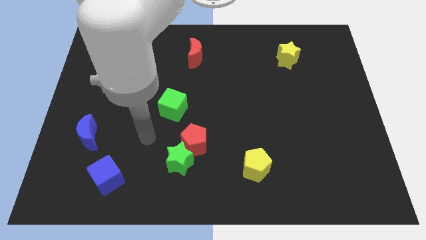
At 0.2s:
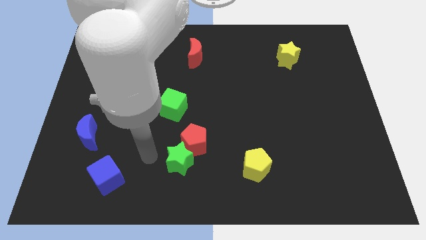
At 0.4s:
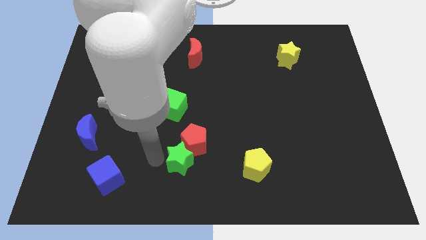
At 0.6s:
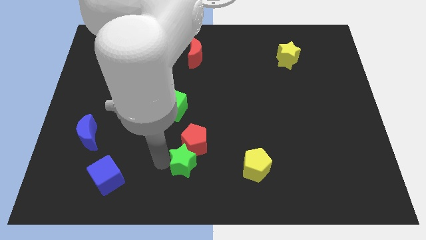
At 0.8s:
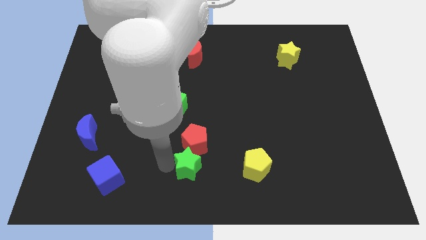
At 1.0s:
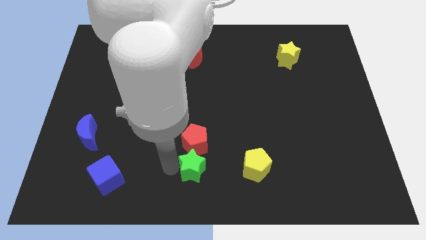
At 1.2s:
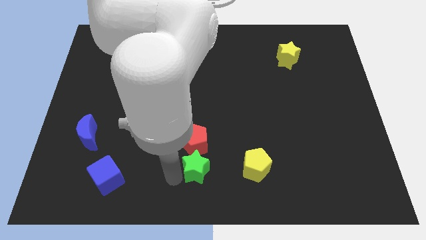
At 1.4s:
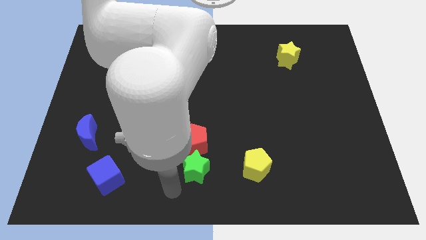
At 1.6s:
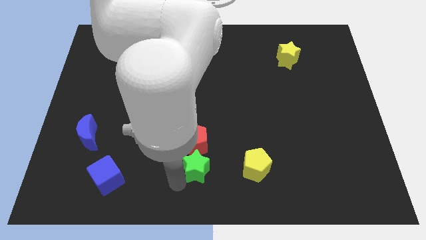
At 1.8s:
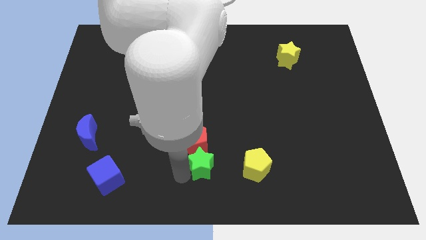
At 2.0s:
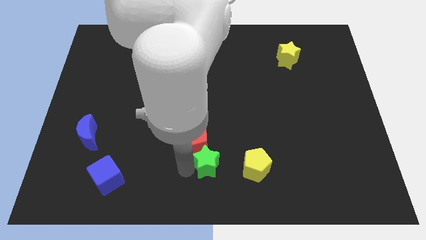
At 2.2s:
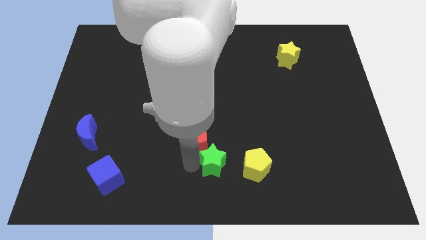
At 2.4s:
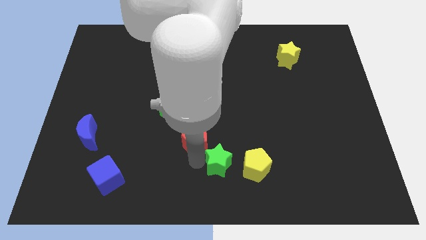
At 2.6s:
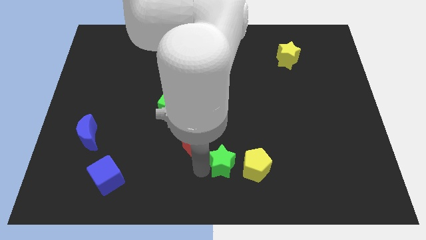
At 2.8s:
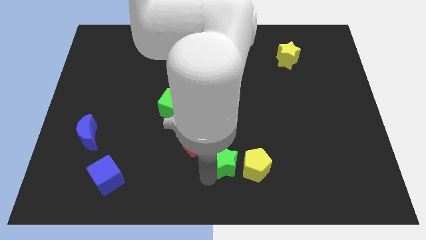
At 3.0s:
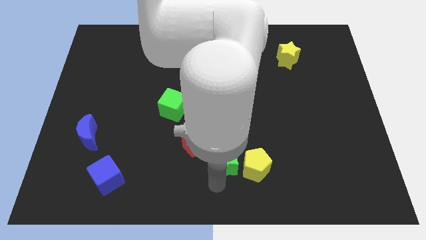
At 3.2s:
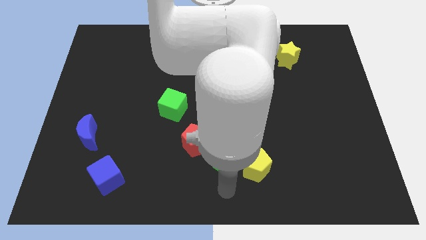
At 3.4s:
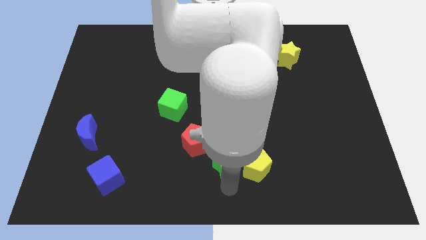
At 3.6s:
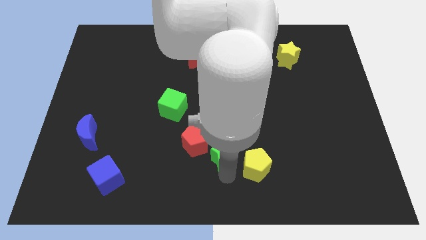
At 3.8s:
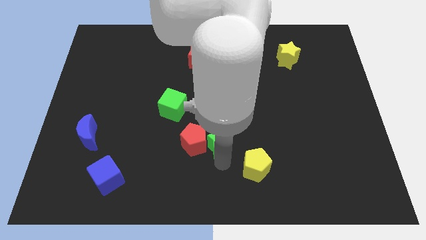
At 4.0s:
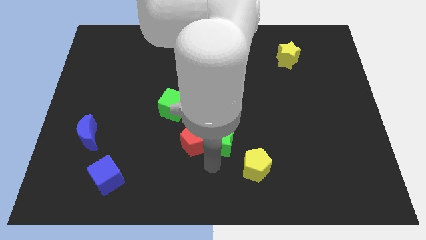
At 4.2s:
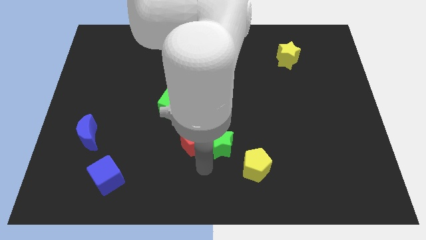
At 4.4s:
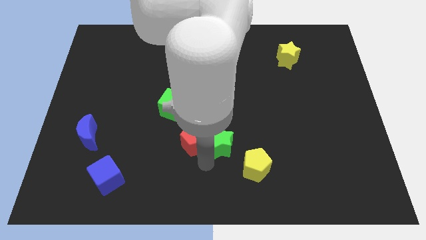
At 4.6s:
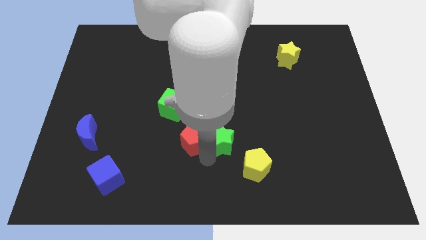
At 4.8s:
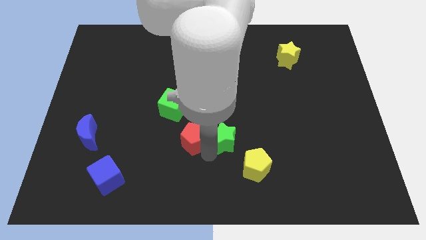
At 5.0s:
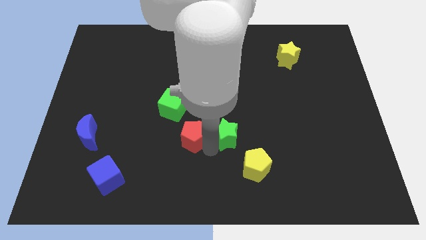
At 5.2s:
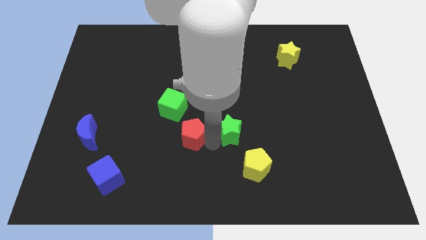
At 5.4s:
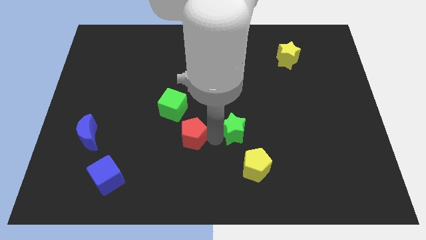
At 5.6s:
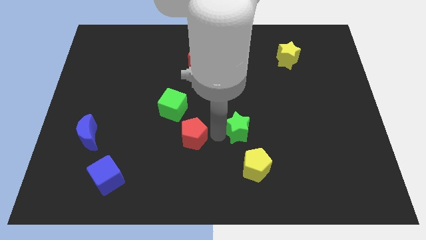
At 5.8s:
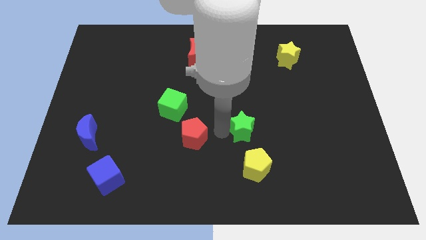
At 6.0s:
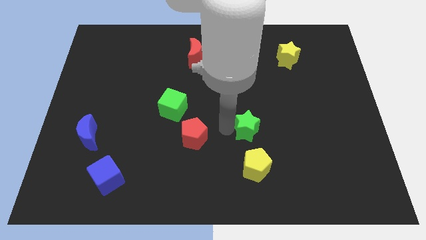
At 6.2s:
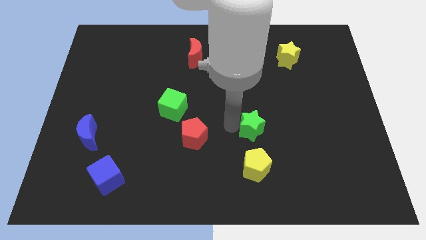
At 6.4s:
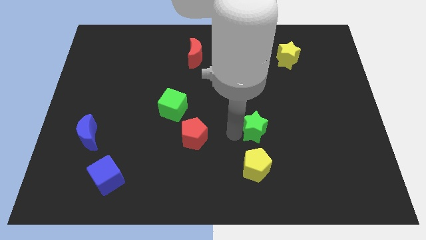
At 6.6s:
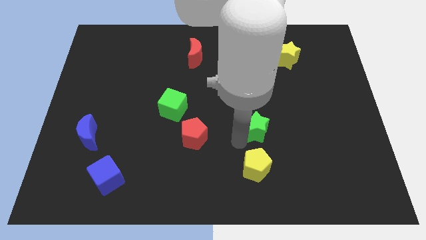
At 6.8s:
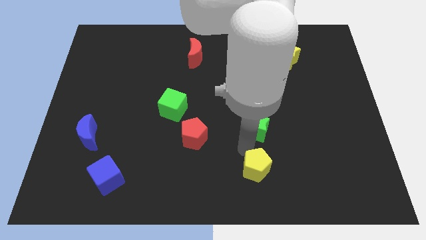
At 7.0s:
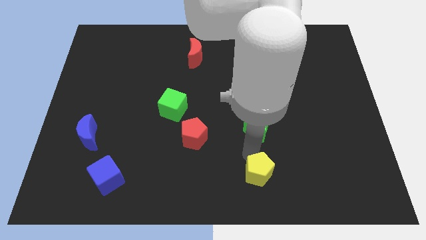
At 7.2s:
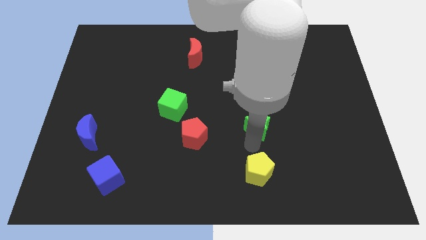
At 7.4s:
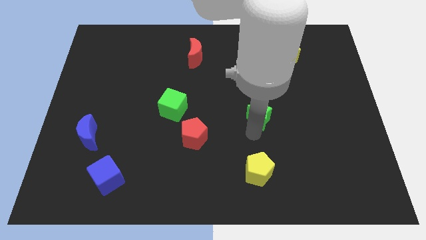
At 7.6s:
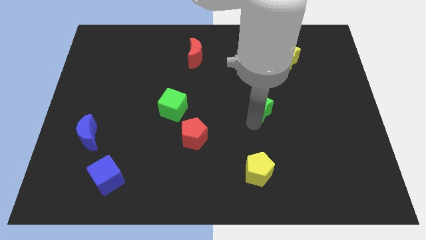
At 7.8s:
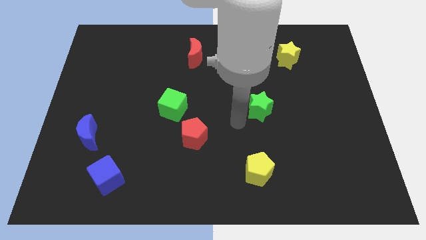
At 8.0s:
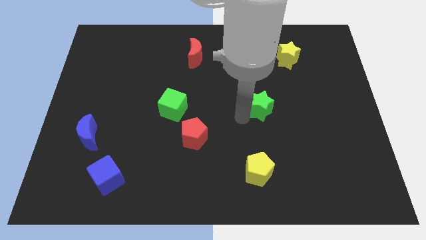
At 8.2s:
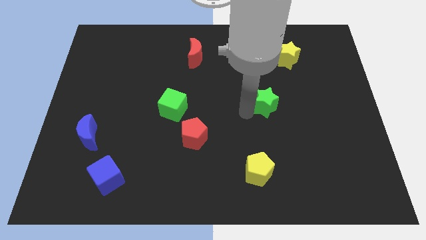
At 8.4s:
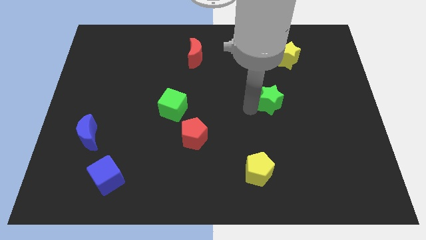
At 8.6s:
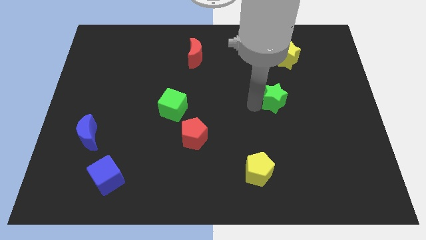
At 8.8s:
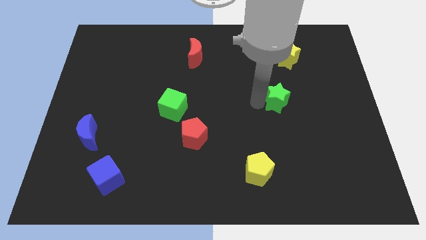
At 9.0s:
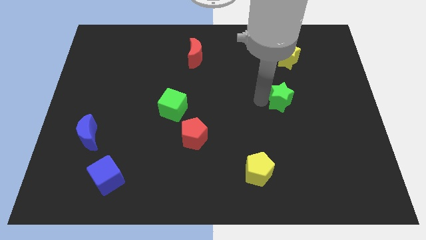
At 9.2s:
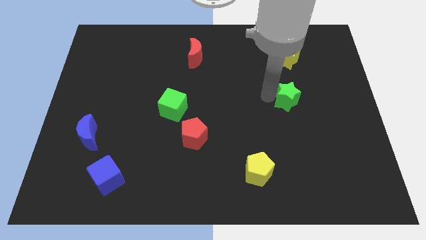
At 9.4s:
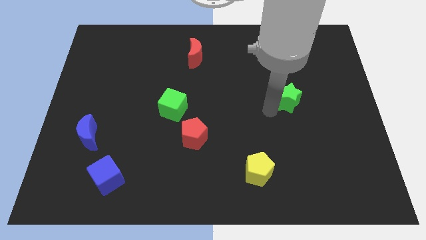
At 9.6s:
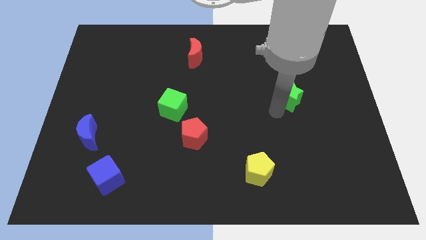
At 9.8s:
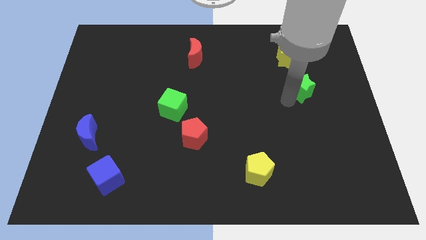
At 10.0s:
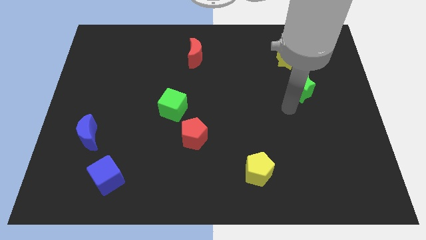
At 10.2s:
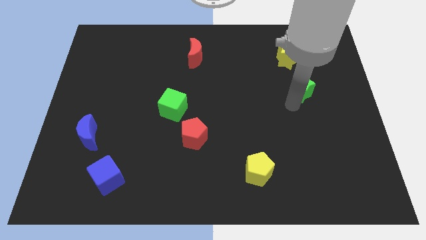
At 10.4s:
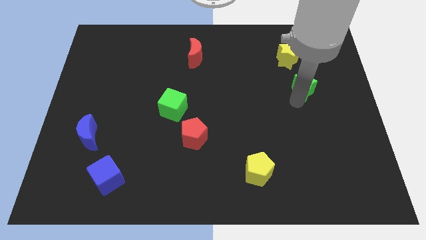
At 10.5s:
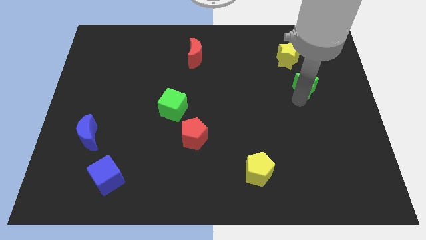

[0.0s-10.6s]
put the green star to the bottom right of the yellow star

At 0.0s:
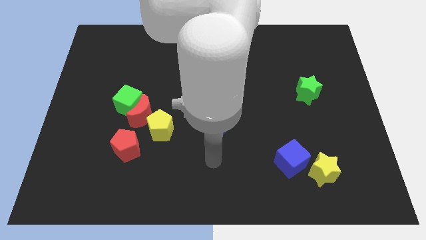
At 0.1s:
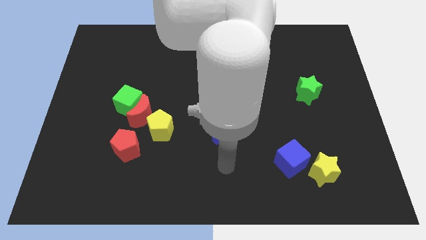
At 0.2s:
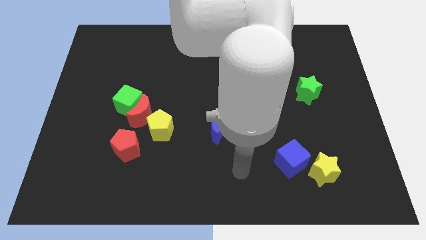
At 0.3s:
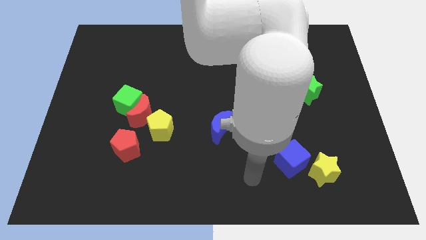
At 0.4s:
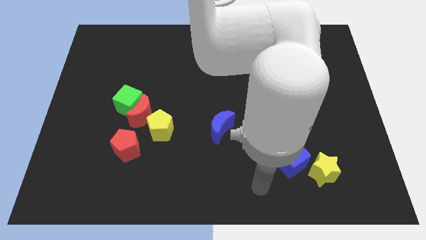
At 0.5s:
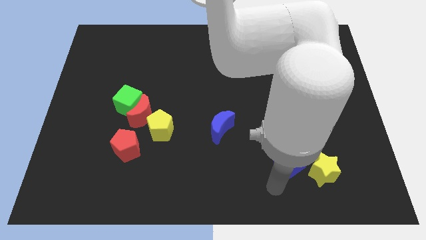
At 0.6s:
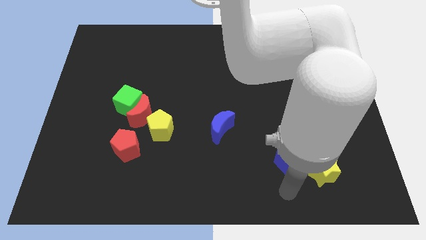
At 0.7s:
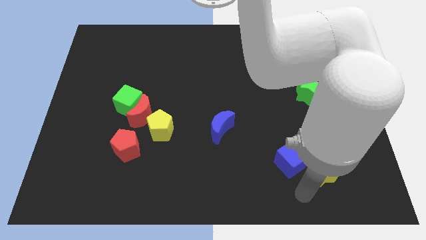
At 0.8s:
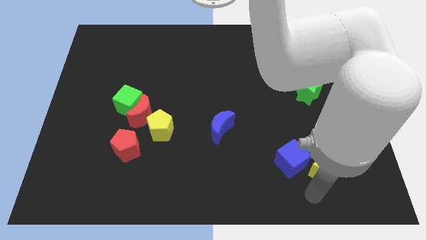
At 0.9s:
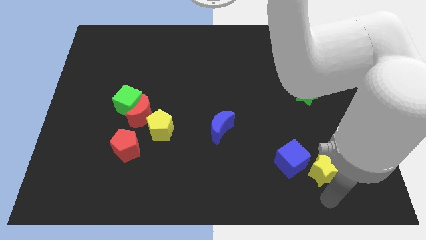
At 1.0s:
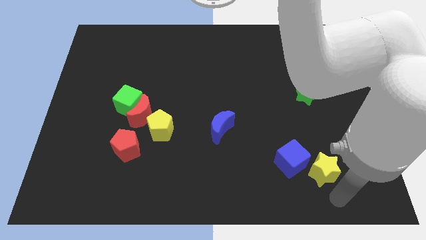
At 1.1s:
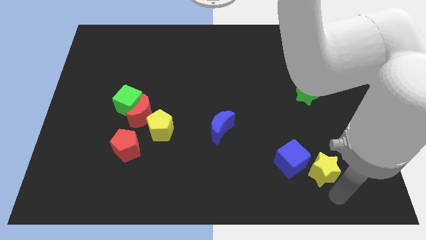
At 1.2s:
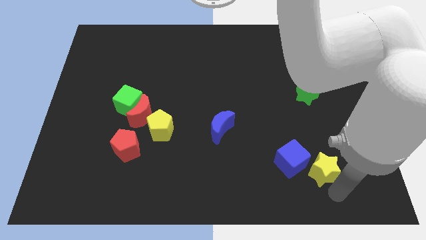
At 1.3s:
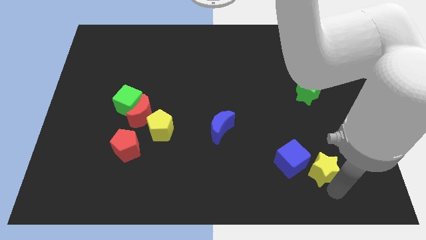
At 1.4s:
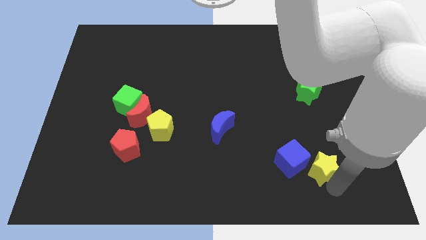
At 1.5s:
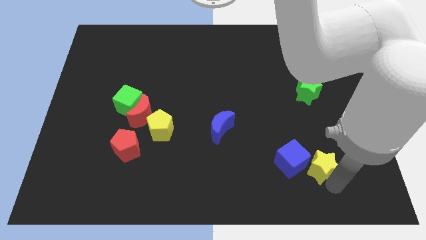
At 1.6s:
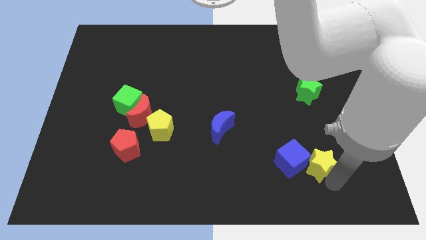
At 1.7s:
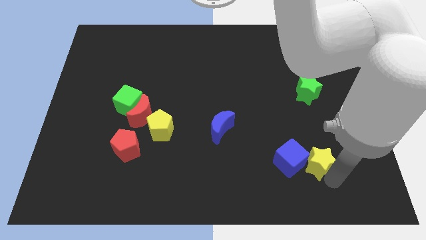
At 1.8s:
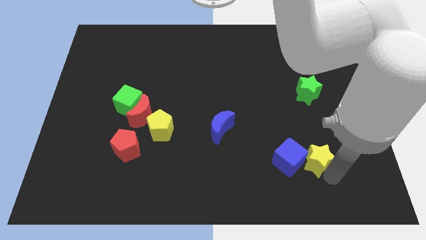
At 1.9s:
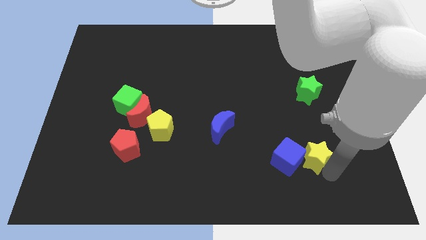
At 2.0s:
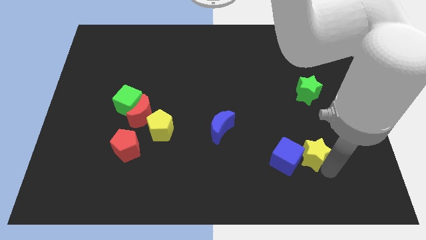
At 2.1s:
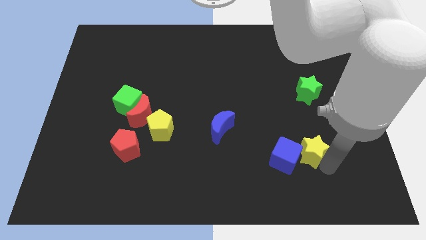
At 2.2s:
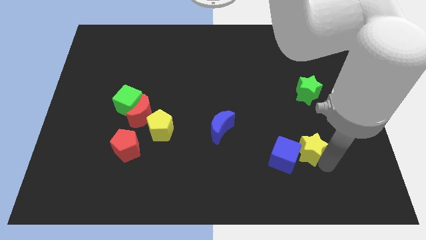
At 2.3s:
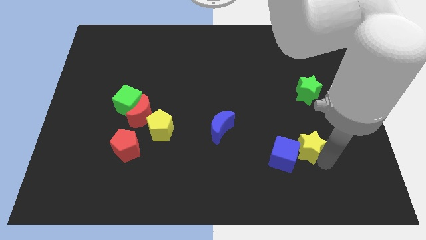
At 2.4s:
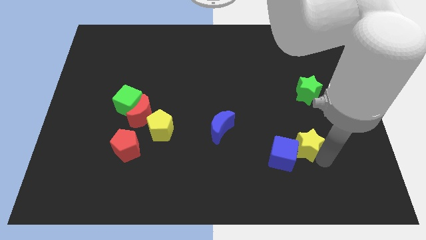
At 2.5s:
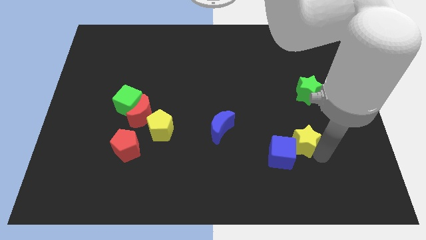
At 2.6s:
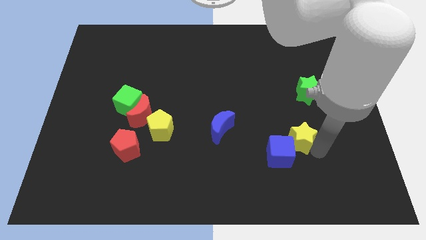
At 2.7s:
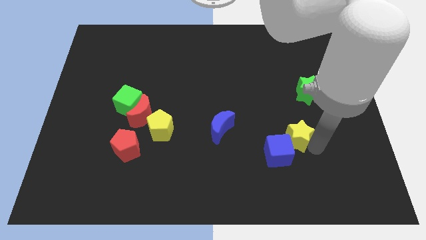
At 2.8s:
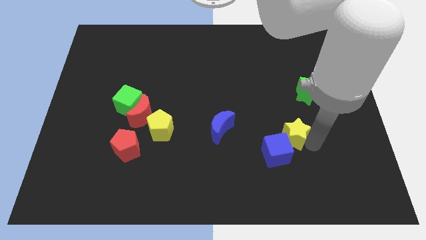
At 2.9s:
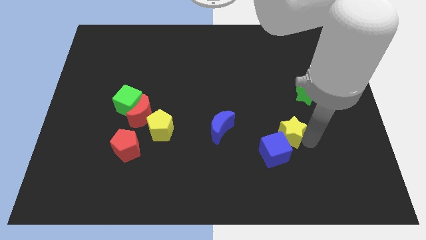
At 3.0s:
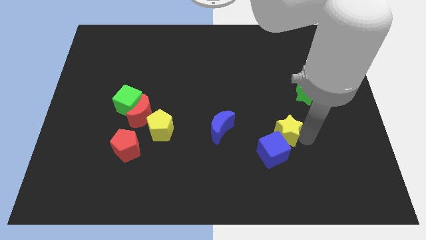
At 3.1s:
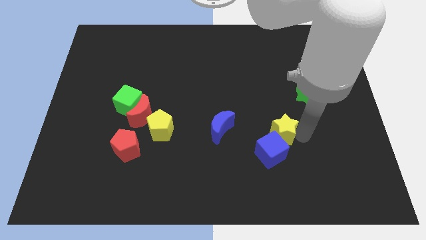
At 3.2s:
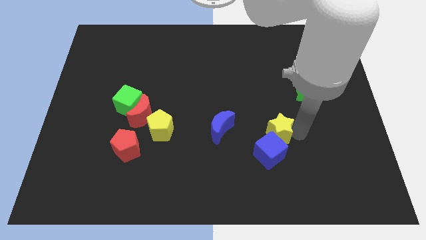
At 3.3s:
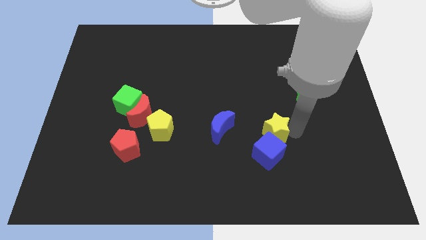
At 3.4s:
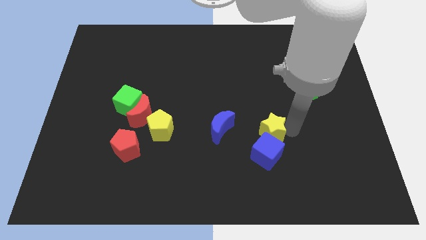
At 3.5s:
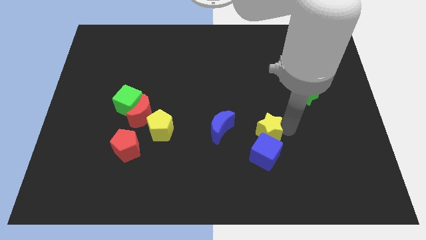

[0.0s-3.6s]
slide the yellow star to the top left of the blue cube
